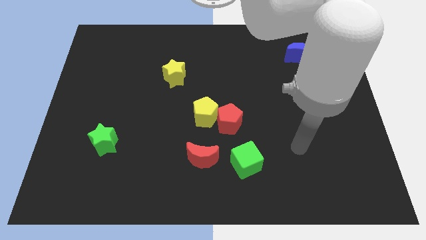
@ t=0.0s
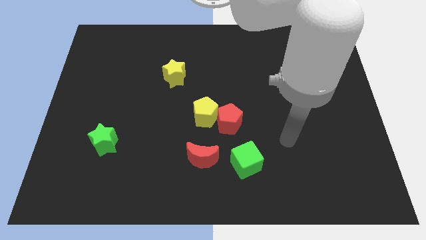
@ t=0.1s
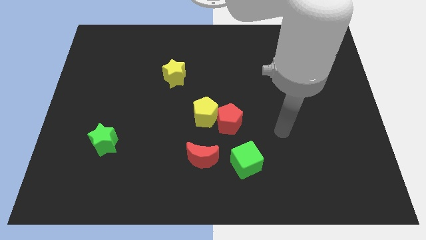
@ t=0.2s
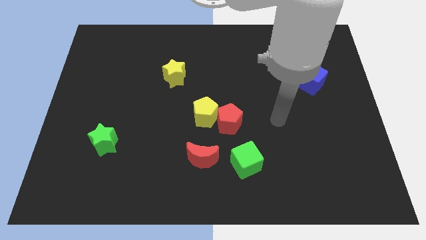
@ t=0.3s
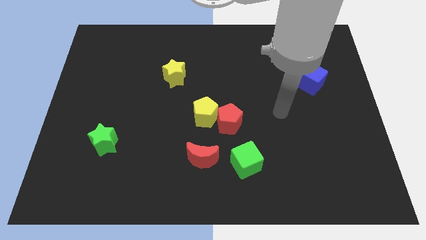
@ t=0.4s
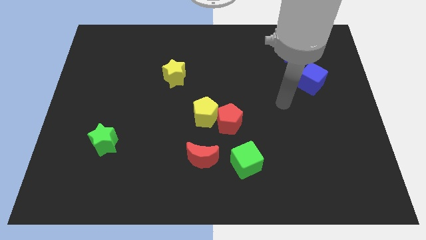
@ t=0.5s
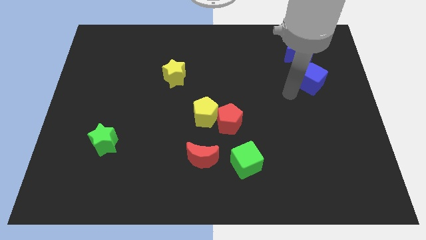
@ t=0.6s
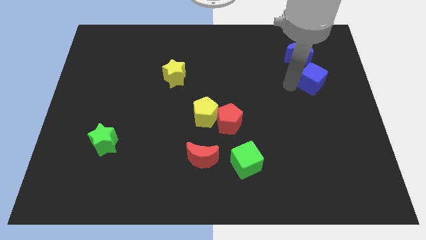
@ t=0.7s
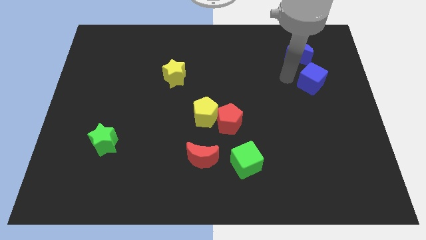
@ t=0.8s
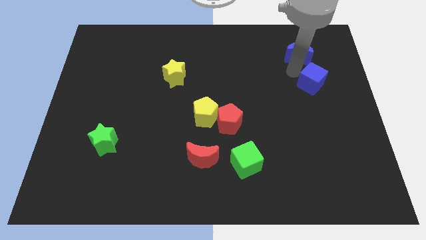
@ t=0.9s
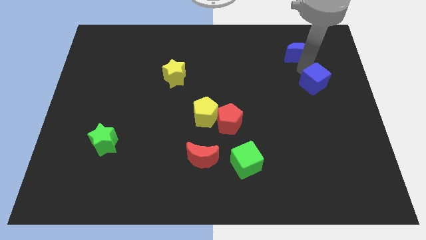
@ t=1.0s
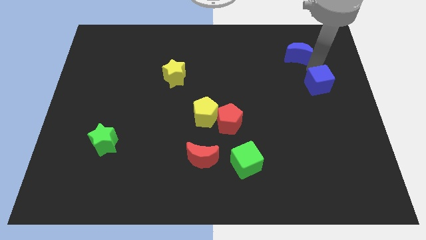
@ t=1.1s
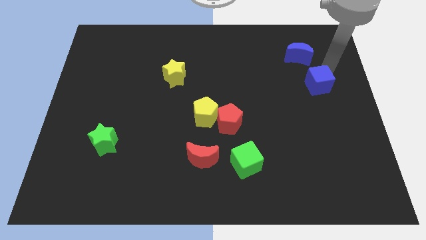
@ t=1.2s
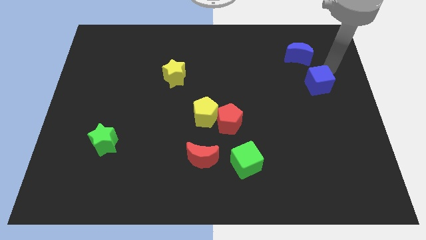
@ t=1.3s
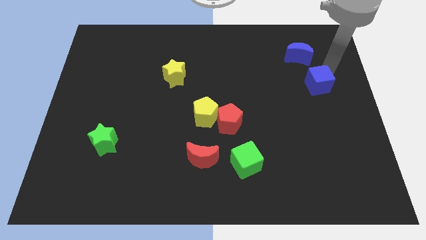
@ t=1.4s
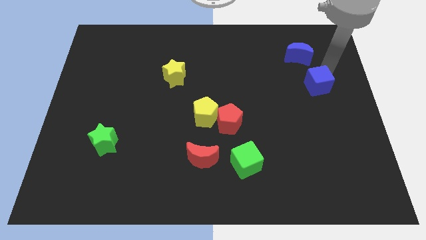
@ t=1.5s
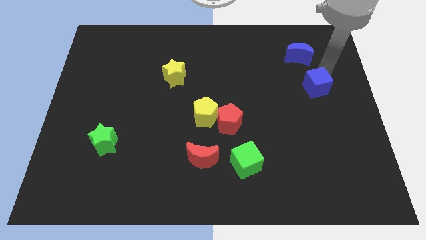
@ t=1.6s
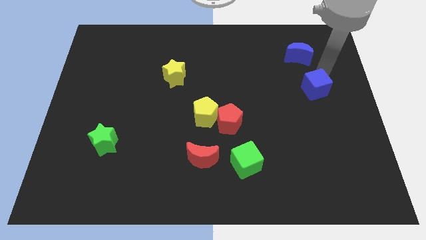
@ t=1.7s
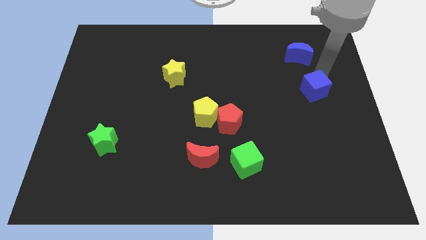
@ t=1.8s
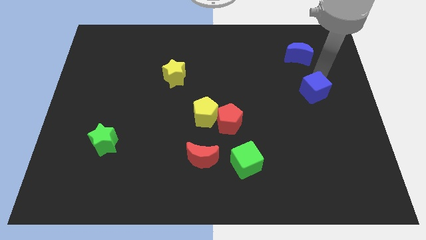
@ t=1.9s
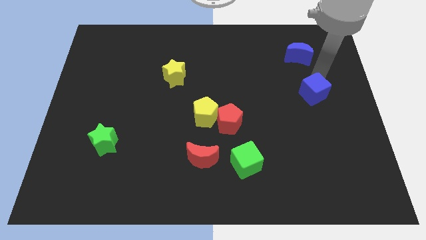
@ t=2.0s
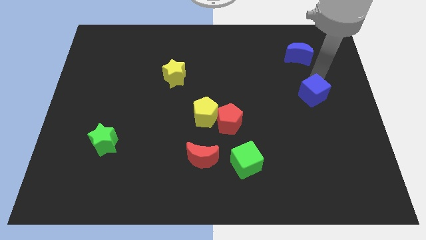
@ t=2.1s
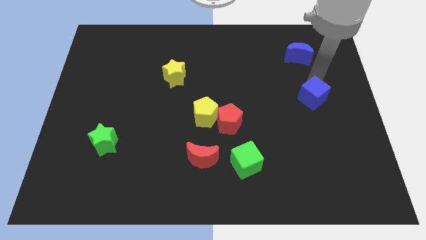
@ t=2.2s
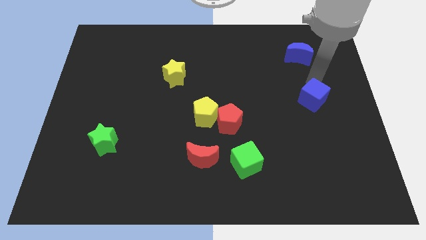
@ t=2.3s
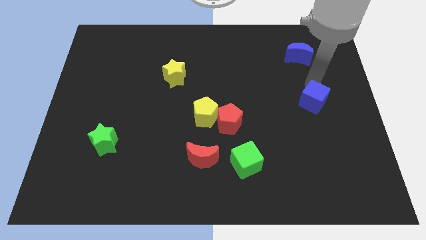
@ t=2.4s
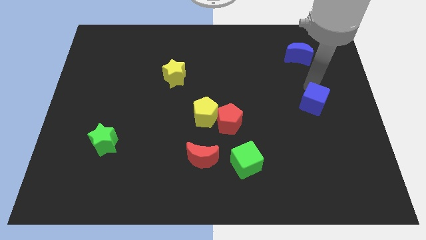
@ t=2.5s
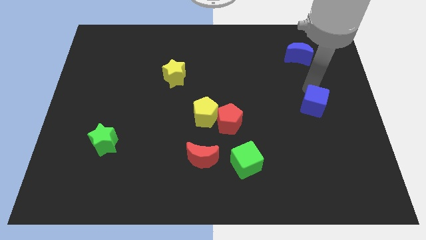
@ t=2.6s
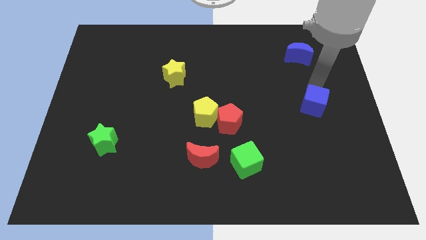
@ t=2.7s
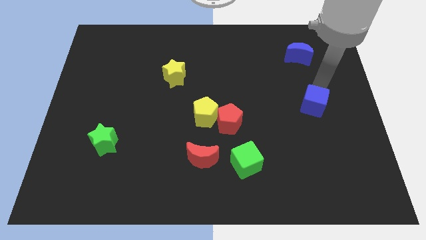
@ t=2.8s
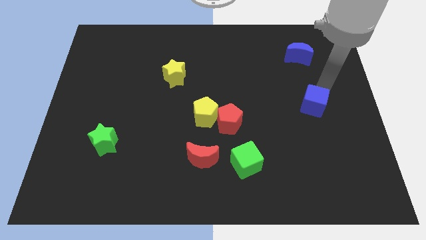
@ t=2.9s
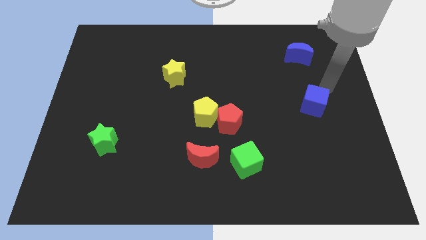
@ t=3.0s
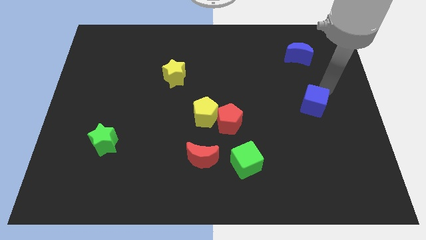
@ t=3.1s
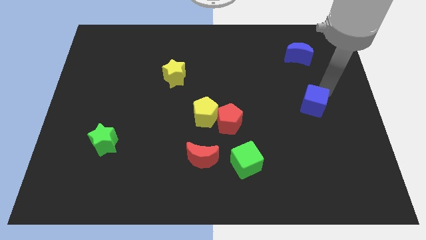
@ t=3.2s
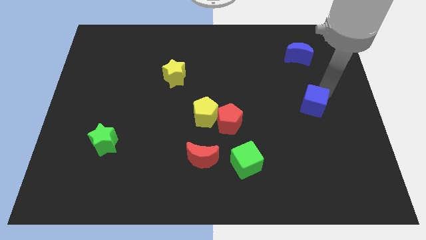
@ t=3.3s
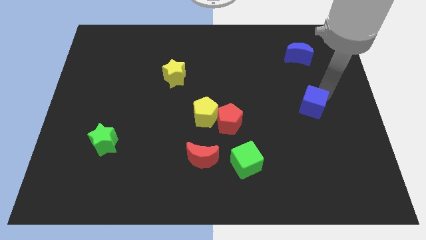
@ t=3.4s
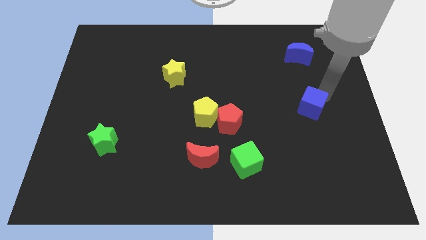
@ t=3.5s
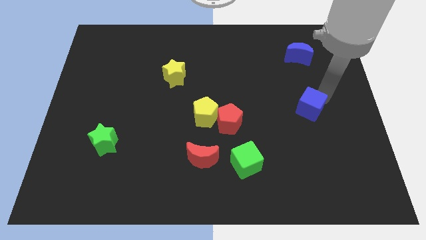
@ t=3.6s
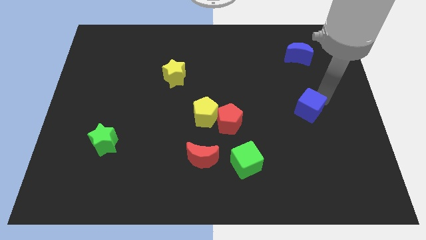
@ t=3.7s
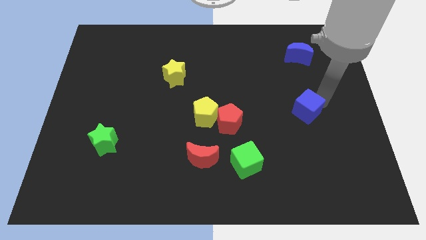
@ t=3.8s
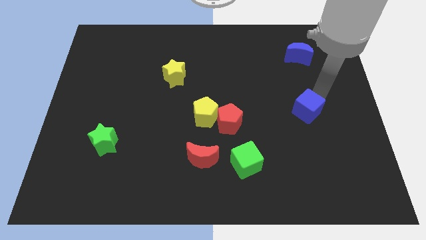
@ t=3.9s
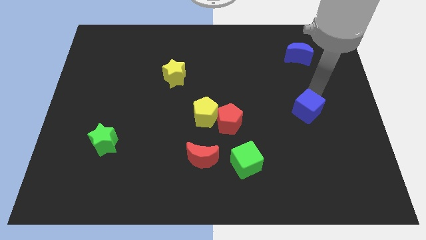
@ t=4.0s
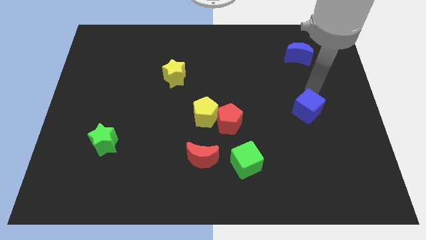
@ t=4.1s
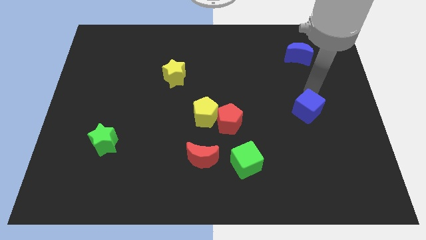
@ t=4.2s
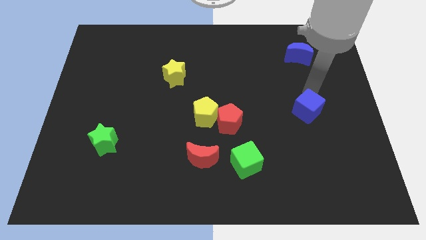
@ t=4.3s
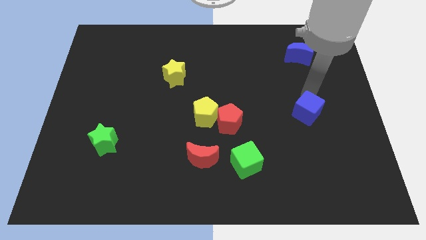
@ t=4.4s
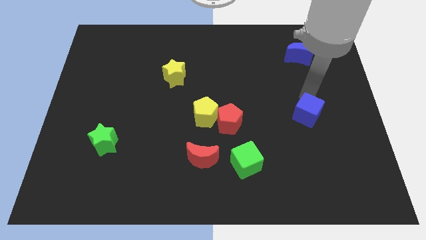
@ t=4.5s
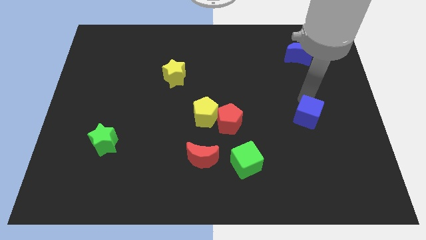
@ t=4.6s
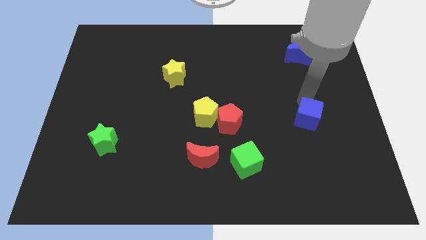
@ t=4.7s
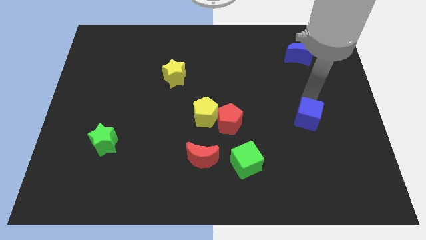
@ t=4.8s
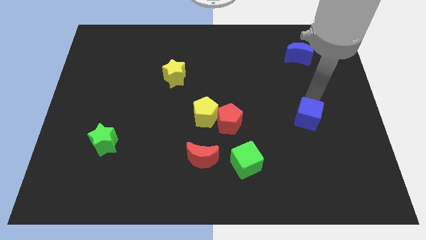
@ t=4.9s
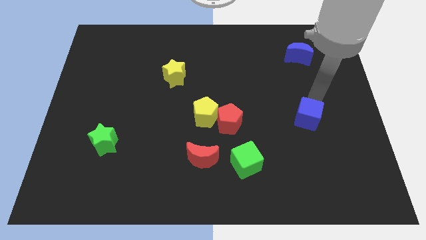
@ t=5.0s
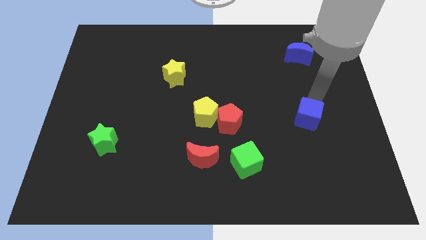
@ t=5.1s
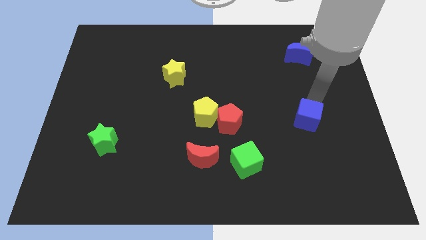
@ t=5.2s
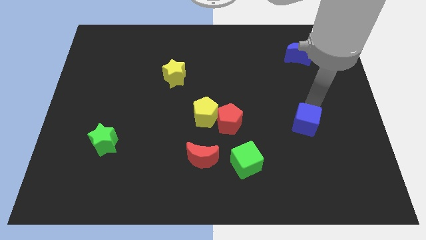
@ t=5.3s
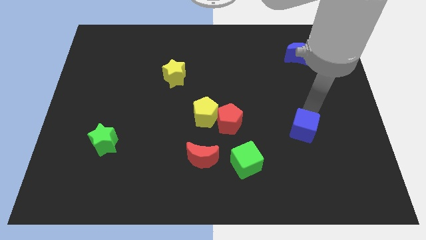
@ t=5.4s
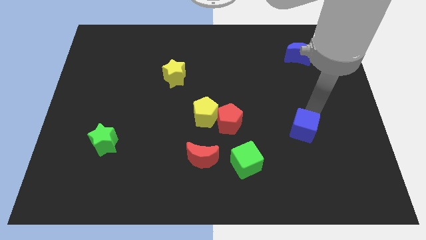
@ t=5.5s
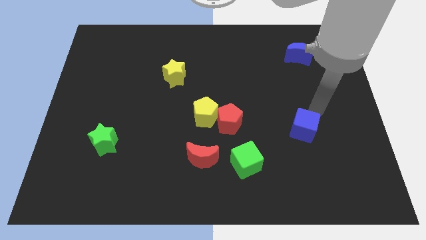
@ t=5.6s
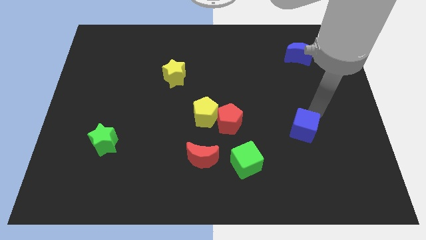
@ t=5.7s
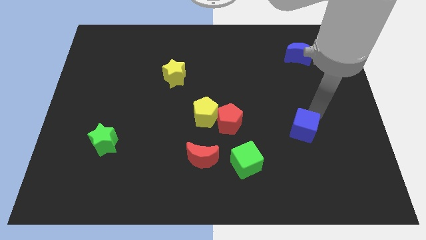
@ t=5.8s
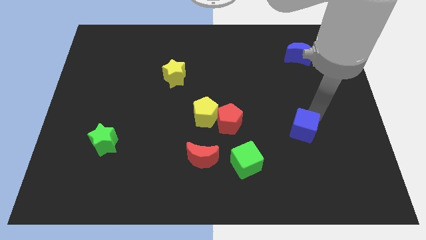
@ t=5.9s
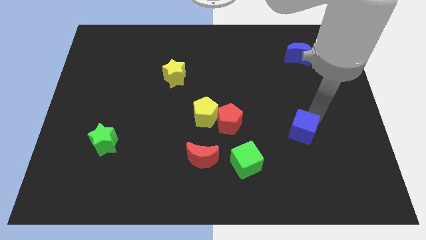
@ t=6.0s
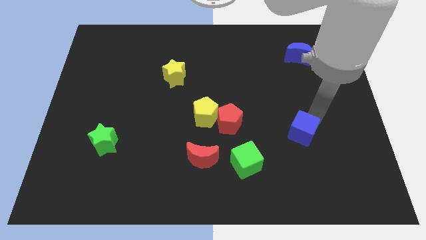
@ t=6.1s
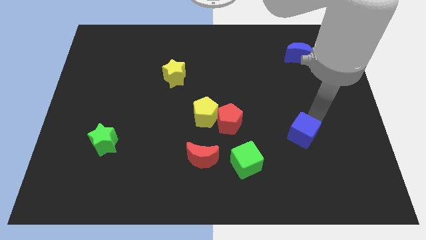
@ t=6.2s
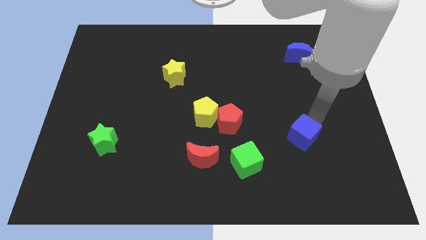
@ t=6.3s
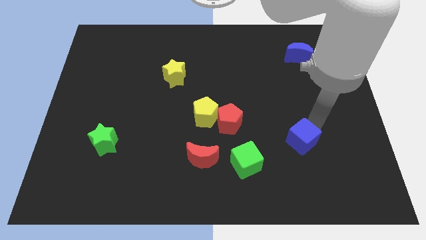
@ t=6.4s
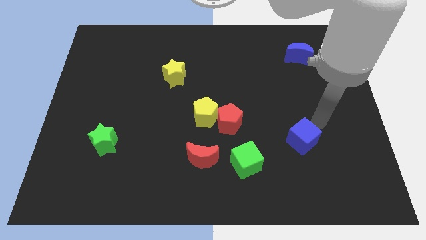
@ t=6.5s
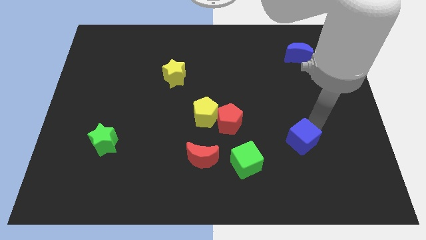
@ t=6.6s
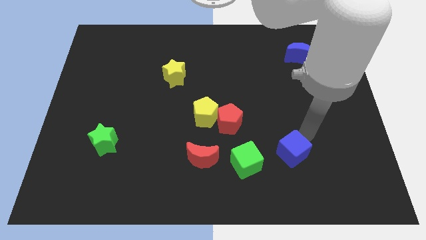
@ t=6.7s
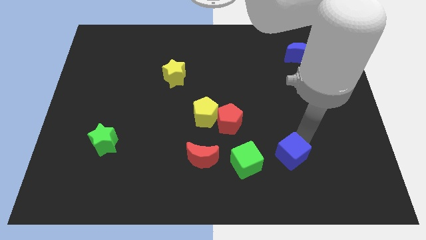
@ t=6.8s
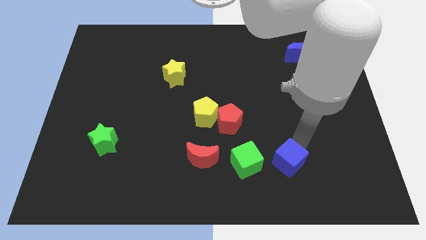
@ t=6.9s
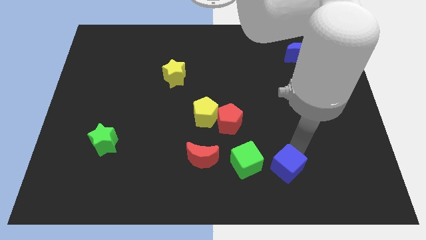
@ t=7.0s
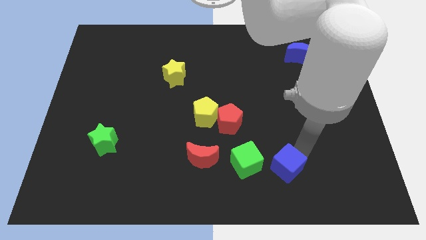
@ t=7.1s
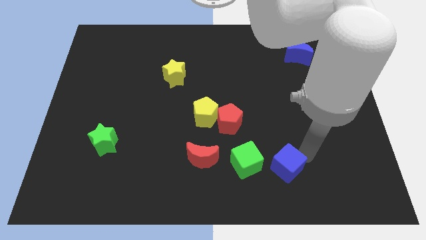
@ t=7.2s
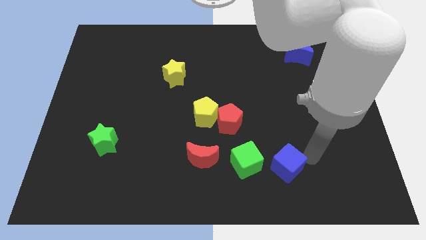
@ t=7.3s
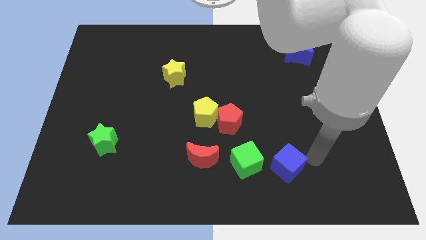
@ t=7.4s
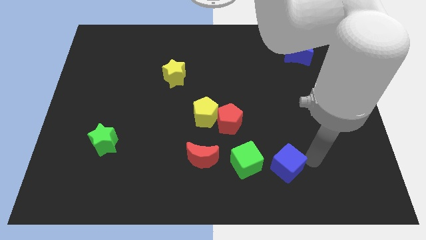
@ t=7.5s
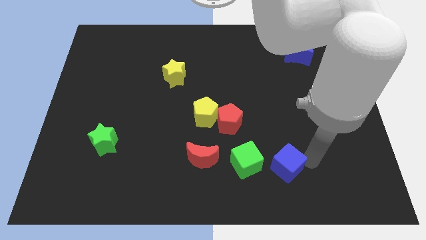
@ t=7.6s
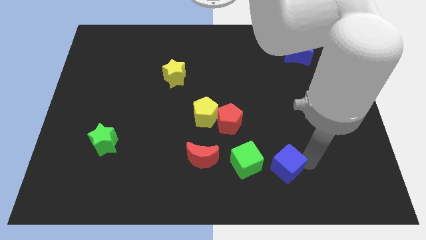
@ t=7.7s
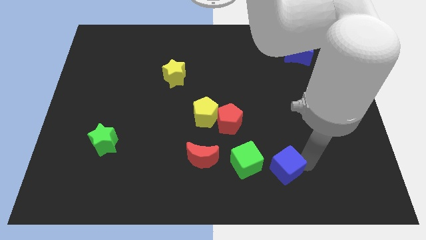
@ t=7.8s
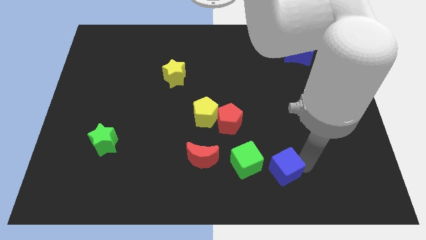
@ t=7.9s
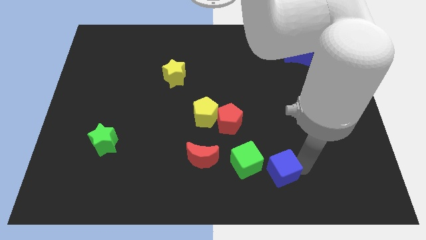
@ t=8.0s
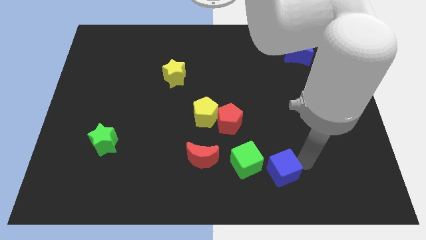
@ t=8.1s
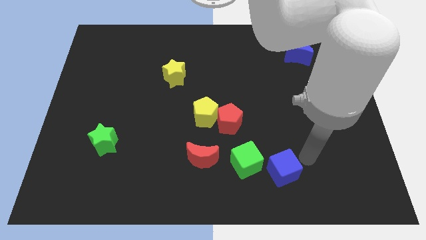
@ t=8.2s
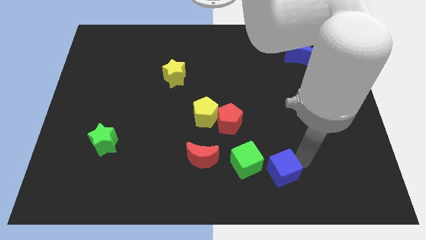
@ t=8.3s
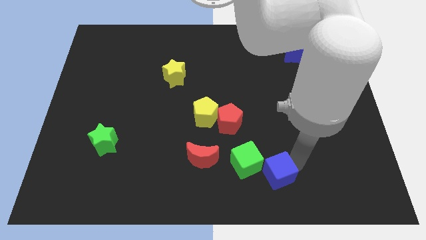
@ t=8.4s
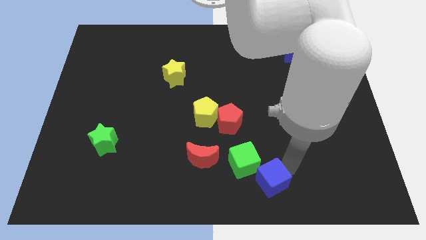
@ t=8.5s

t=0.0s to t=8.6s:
move the blue cube to the bottom
